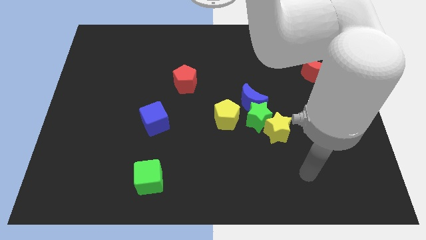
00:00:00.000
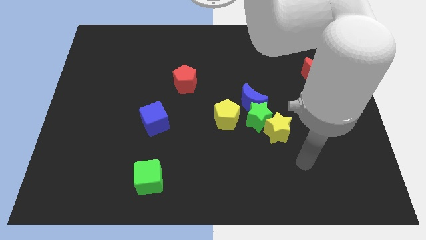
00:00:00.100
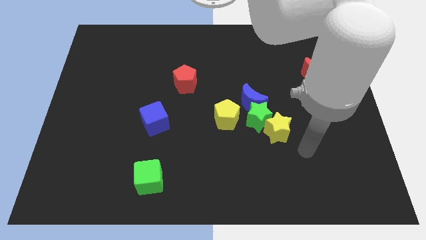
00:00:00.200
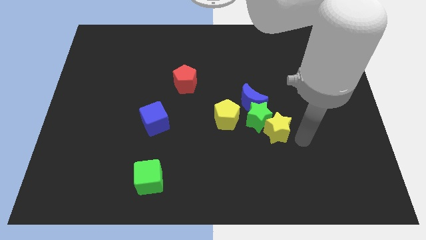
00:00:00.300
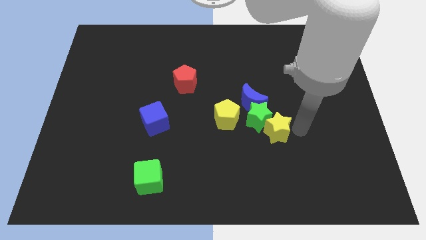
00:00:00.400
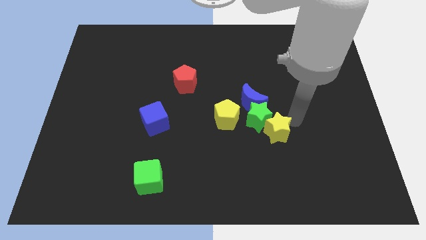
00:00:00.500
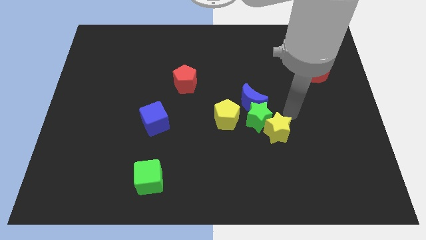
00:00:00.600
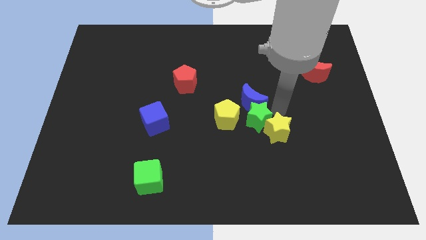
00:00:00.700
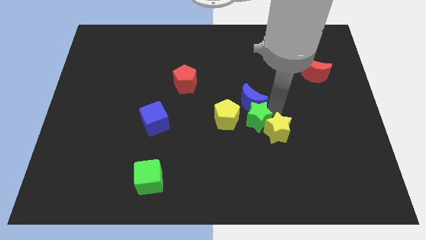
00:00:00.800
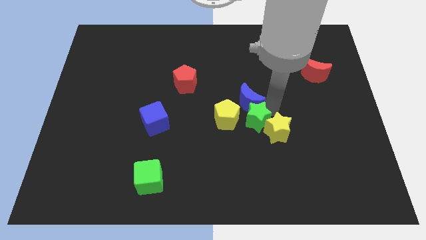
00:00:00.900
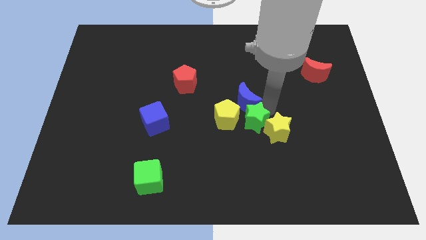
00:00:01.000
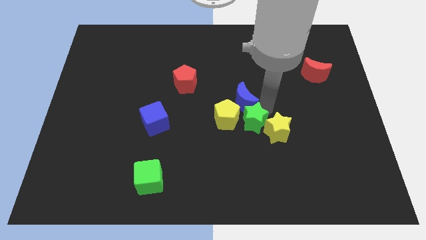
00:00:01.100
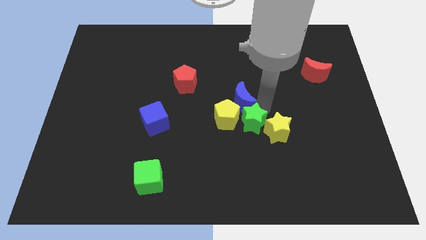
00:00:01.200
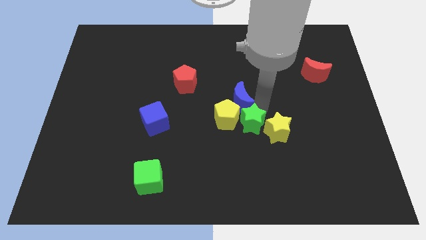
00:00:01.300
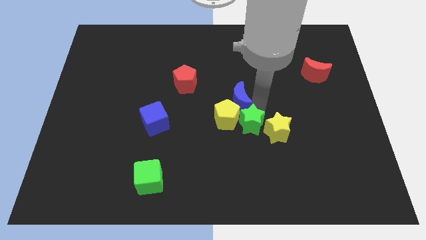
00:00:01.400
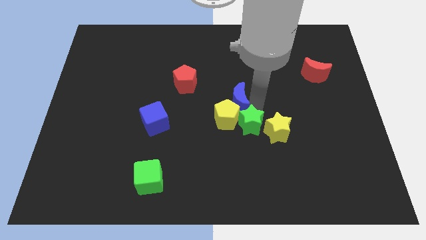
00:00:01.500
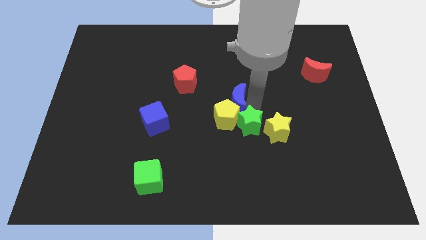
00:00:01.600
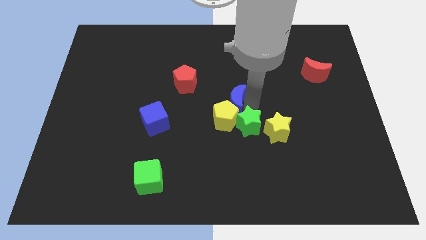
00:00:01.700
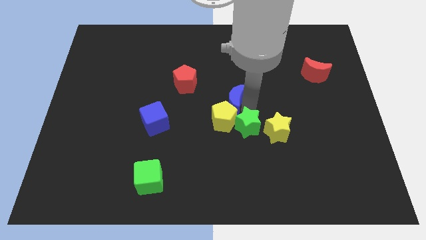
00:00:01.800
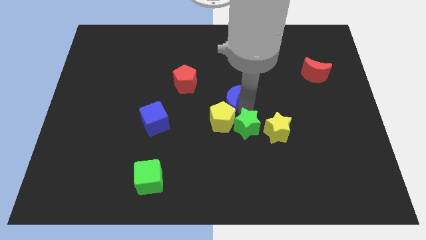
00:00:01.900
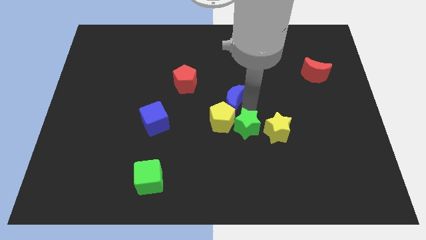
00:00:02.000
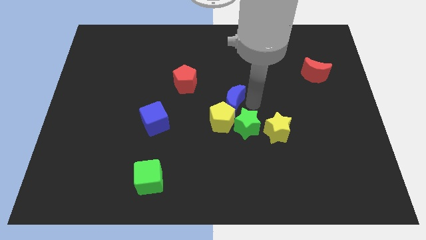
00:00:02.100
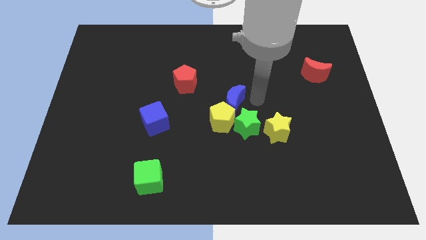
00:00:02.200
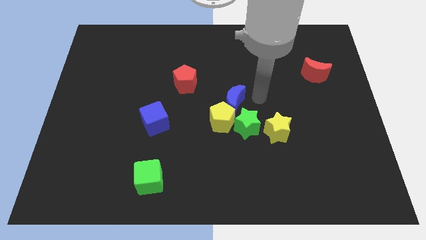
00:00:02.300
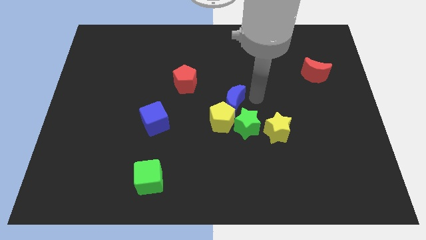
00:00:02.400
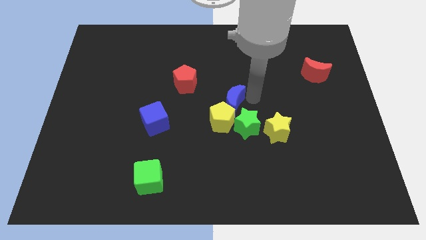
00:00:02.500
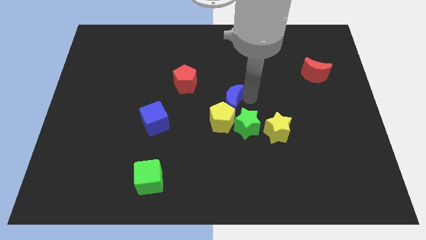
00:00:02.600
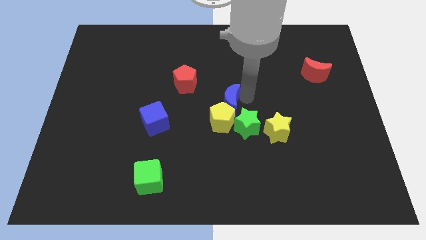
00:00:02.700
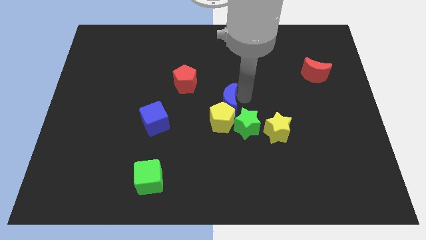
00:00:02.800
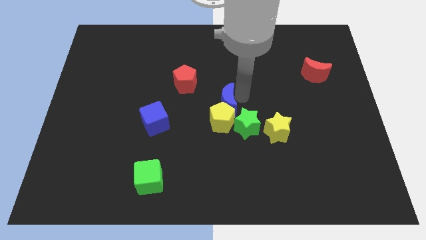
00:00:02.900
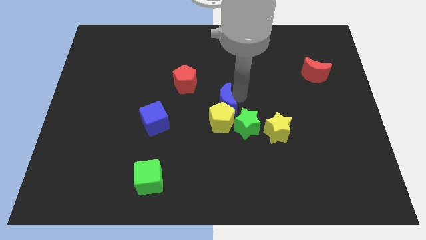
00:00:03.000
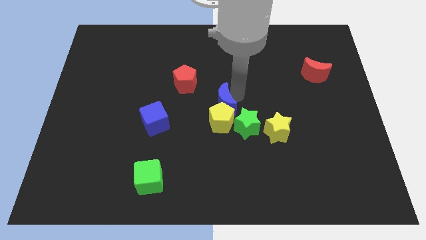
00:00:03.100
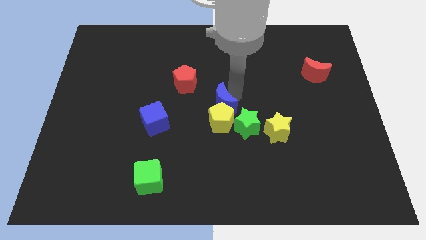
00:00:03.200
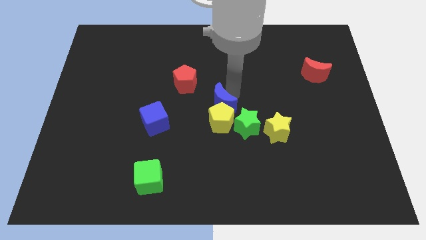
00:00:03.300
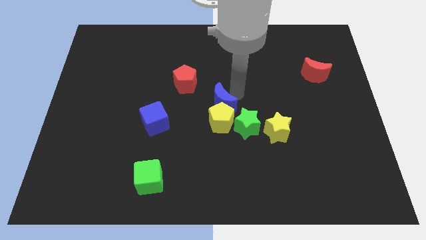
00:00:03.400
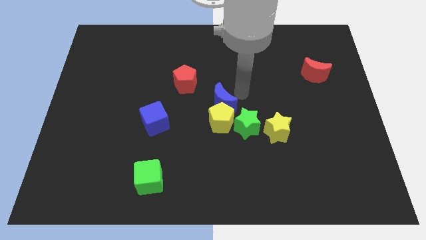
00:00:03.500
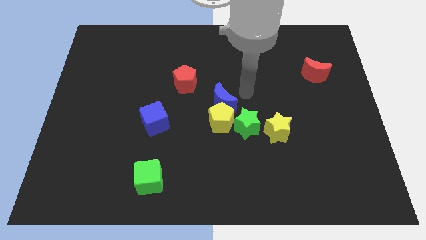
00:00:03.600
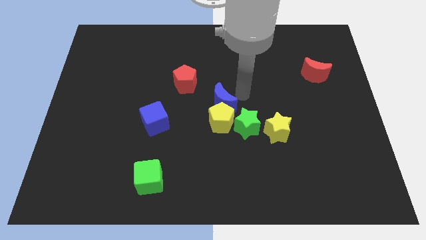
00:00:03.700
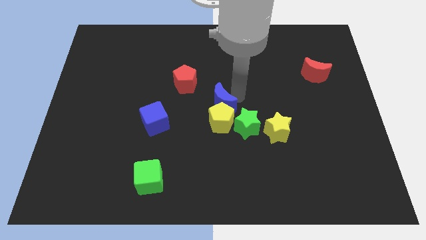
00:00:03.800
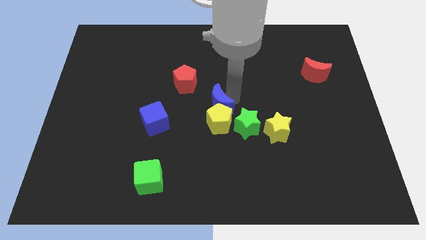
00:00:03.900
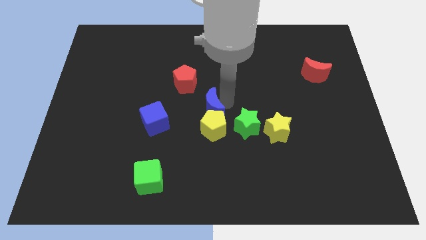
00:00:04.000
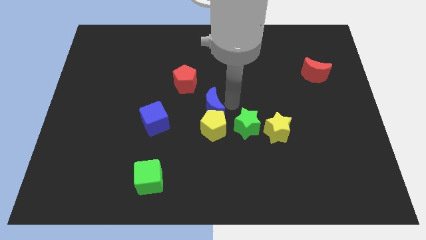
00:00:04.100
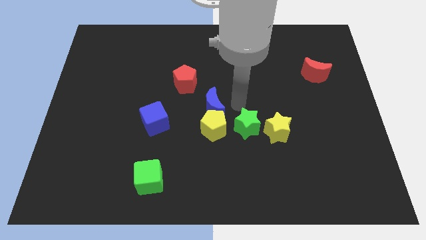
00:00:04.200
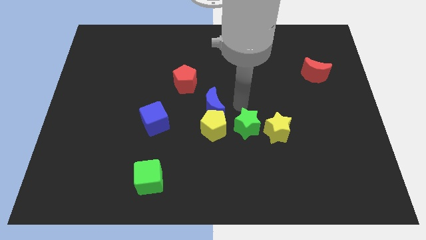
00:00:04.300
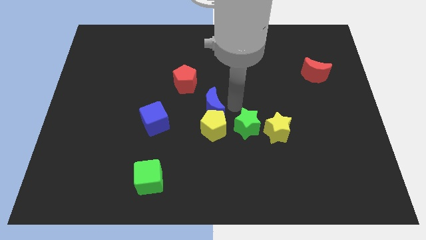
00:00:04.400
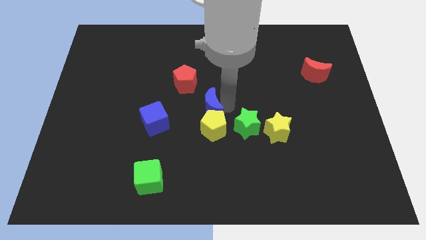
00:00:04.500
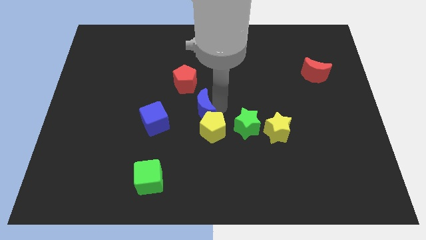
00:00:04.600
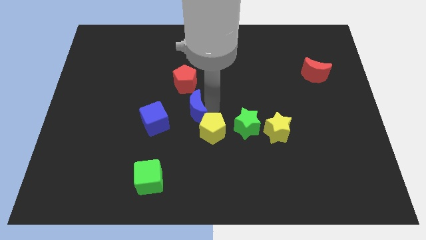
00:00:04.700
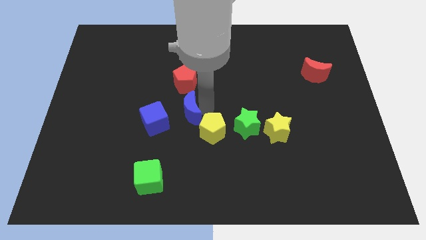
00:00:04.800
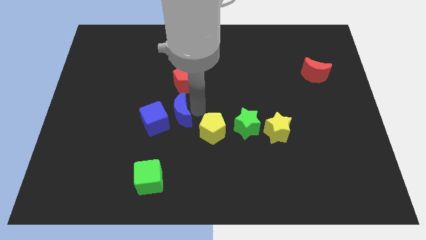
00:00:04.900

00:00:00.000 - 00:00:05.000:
move the blue moon close to the blue cube

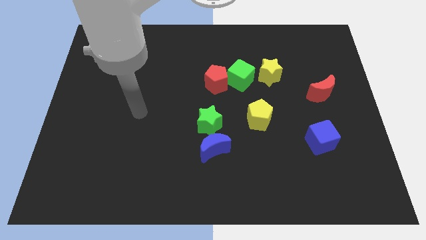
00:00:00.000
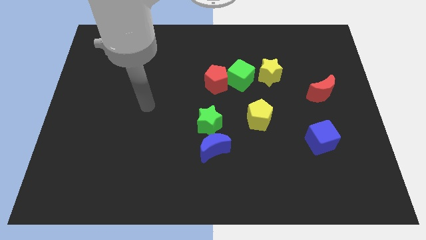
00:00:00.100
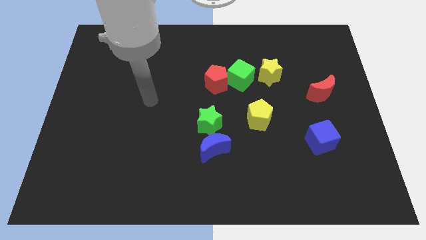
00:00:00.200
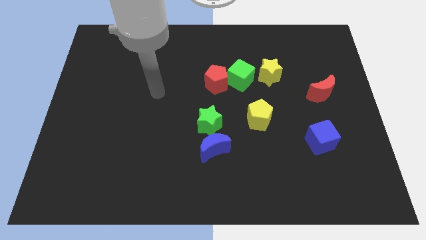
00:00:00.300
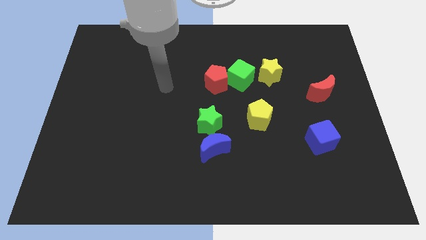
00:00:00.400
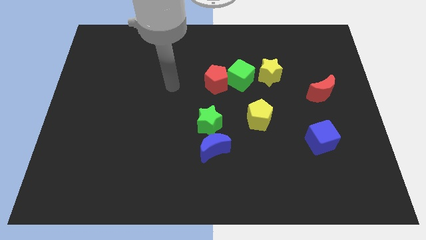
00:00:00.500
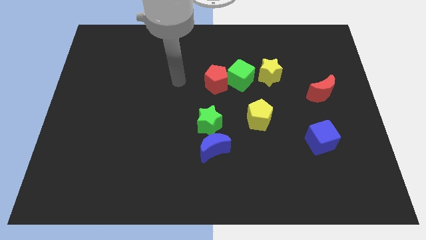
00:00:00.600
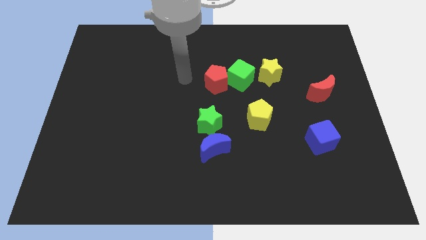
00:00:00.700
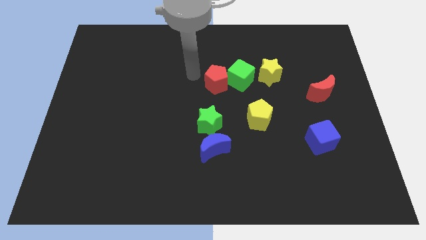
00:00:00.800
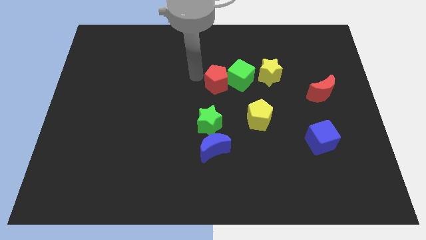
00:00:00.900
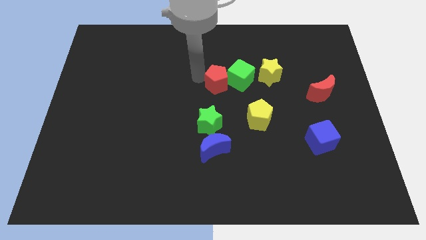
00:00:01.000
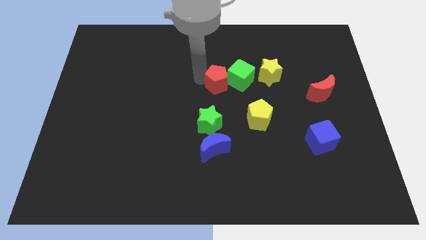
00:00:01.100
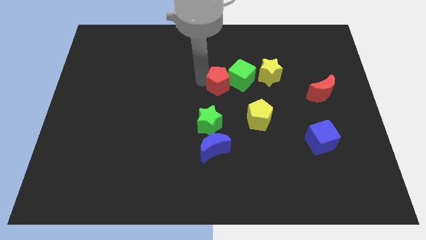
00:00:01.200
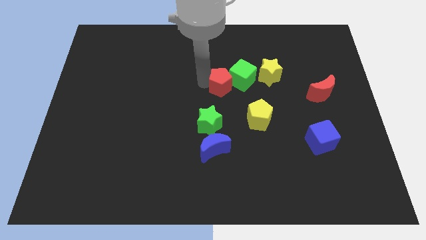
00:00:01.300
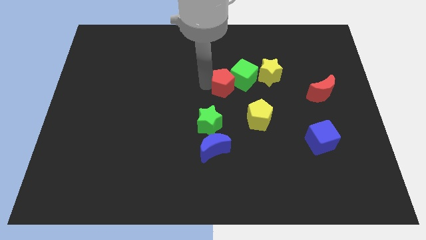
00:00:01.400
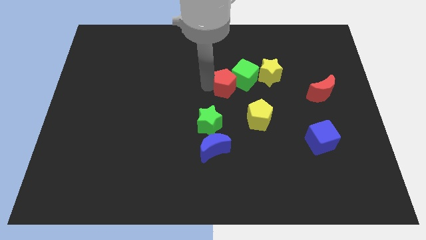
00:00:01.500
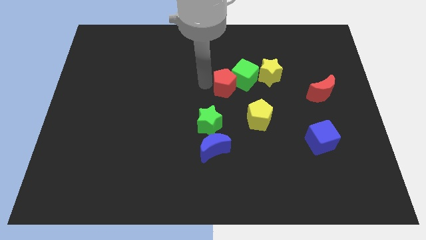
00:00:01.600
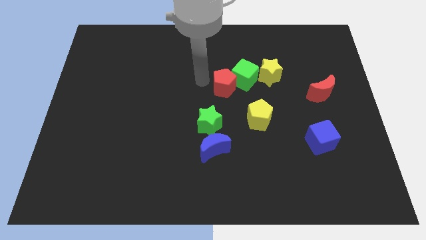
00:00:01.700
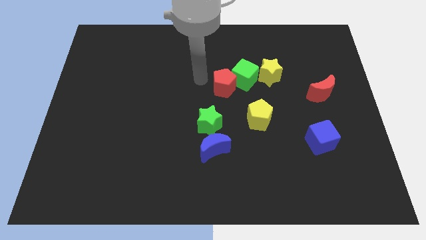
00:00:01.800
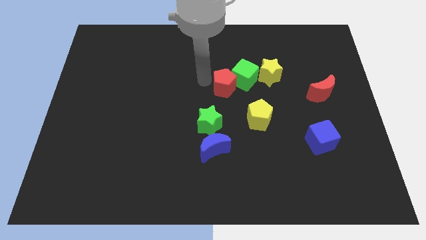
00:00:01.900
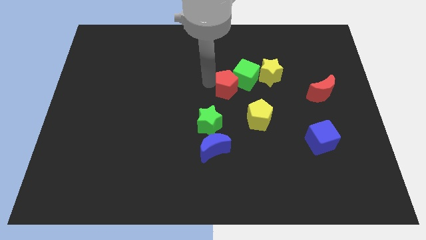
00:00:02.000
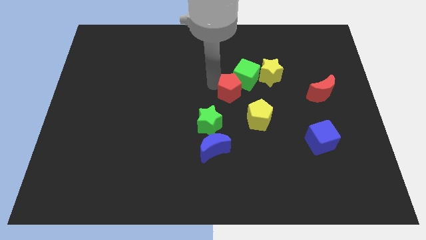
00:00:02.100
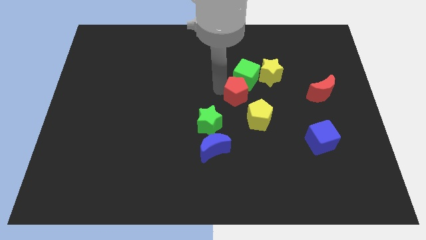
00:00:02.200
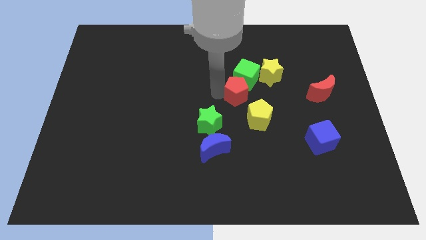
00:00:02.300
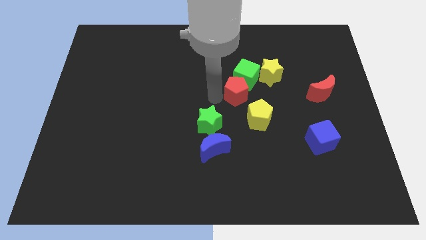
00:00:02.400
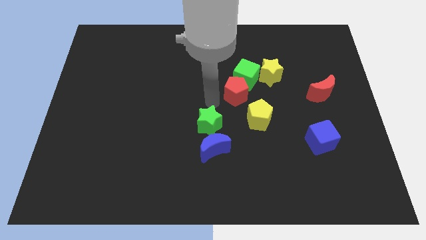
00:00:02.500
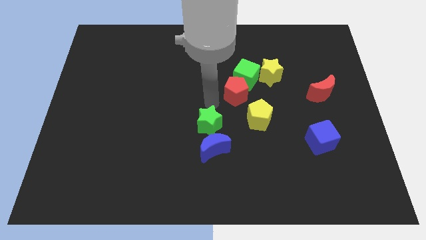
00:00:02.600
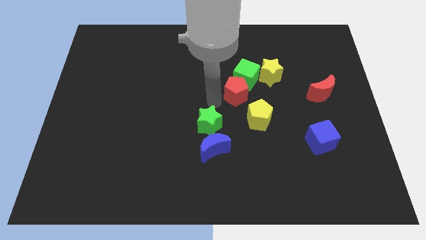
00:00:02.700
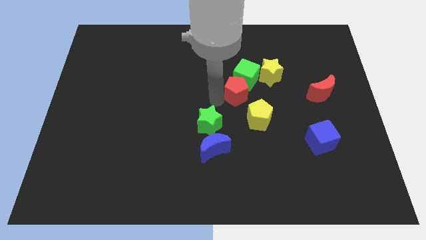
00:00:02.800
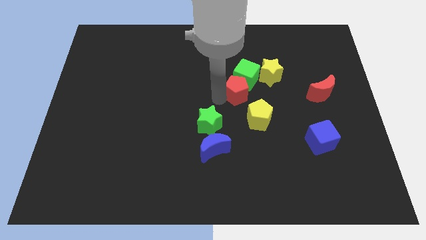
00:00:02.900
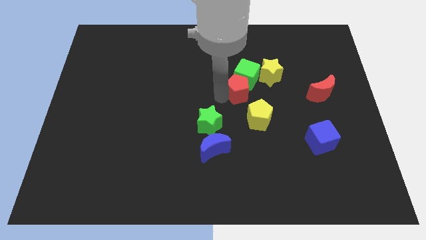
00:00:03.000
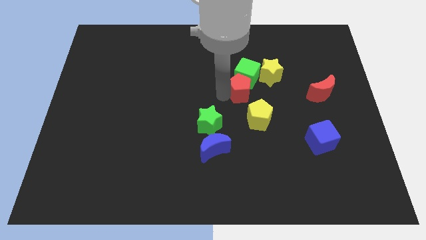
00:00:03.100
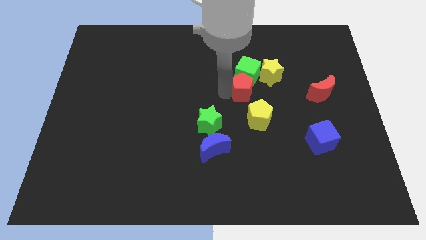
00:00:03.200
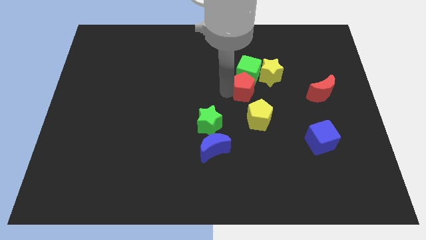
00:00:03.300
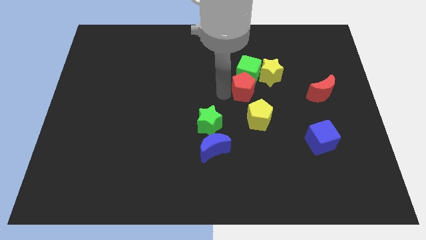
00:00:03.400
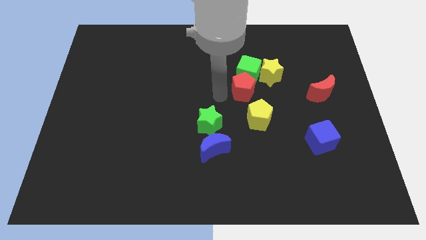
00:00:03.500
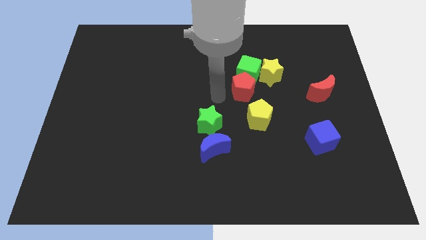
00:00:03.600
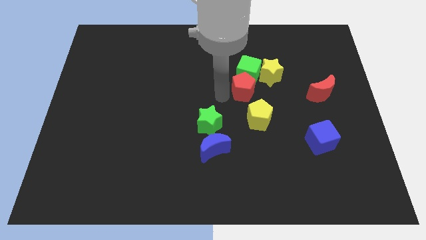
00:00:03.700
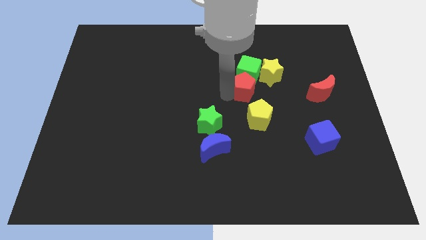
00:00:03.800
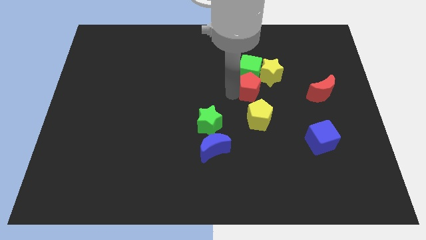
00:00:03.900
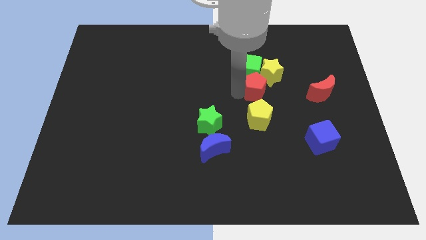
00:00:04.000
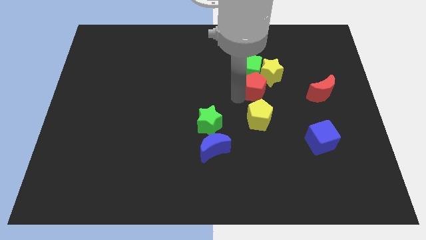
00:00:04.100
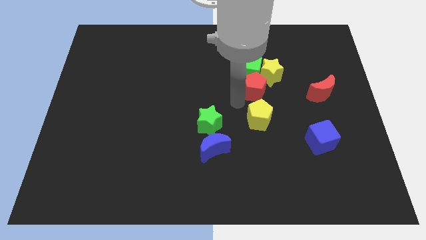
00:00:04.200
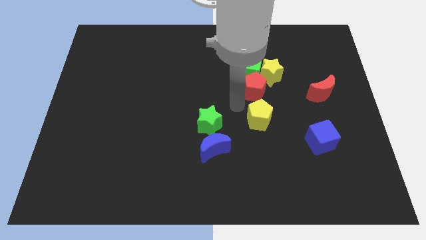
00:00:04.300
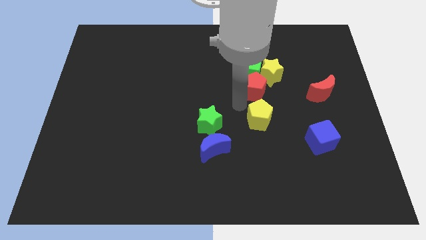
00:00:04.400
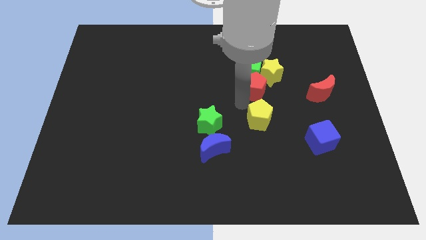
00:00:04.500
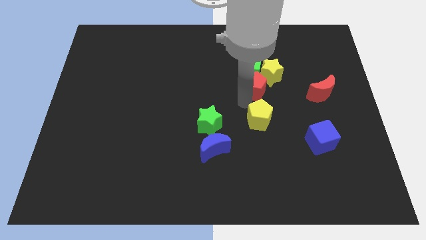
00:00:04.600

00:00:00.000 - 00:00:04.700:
push the red pentagon towards the yellow star
